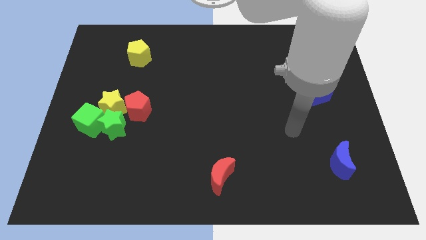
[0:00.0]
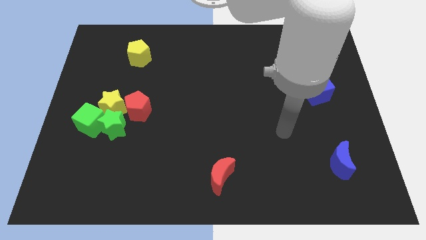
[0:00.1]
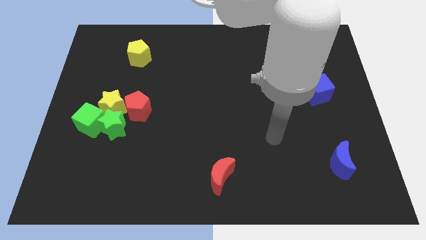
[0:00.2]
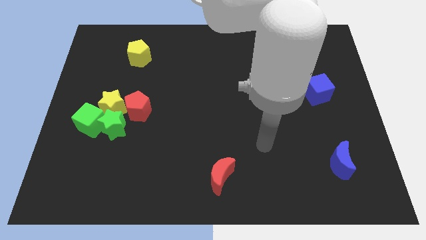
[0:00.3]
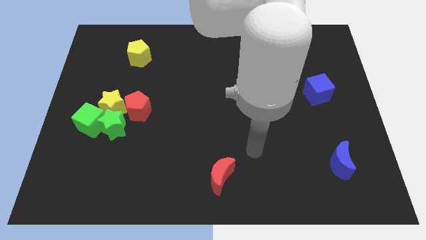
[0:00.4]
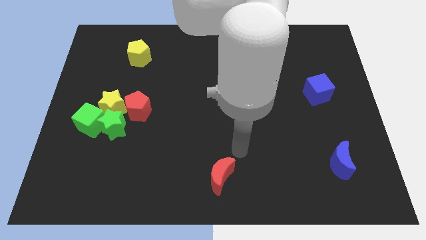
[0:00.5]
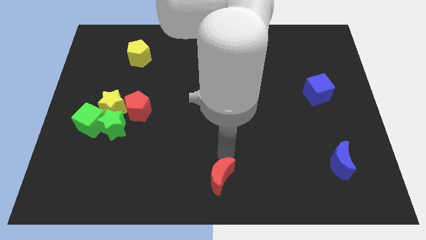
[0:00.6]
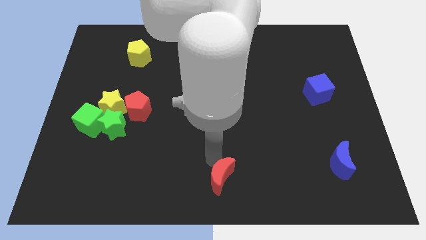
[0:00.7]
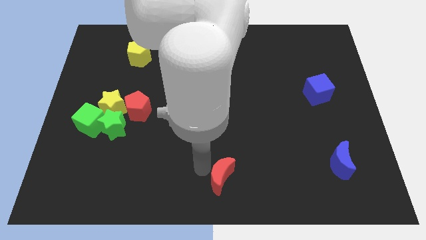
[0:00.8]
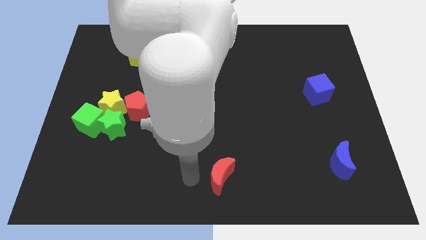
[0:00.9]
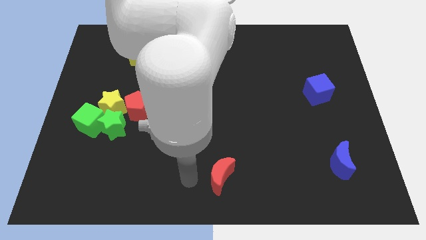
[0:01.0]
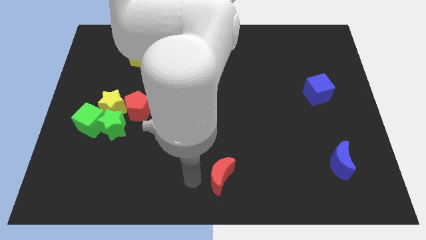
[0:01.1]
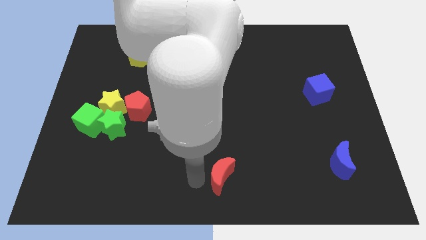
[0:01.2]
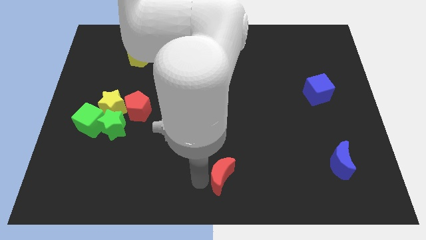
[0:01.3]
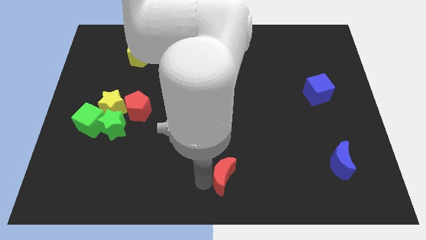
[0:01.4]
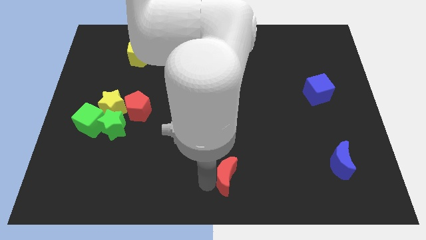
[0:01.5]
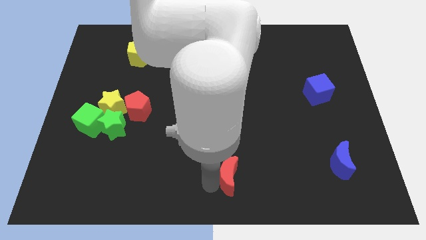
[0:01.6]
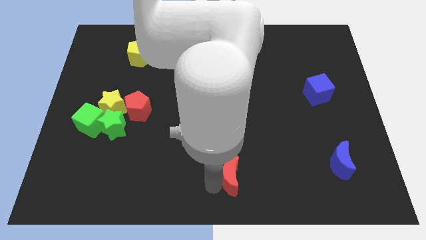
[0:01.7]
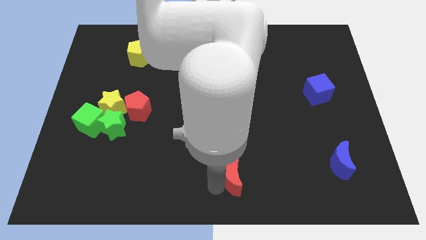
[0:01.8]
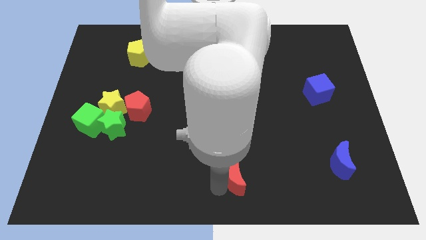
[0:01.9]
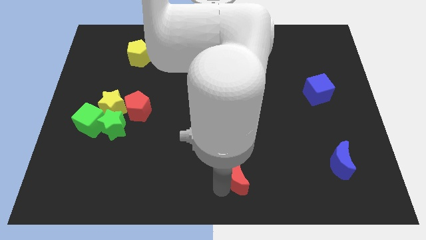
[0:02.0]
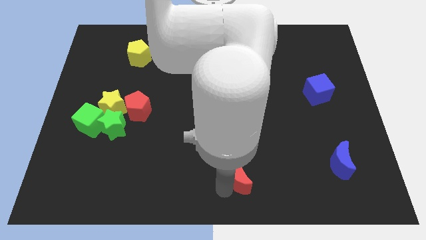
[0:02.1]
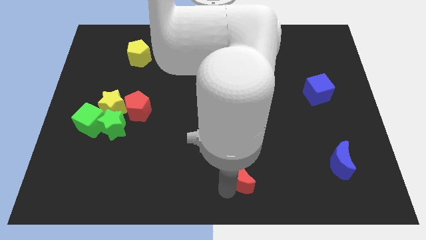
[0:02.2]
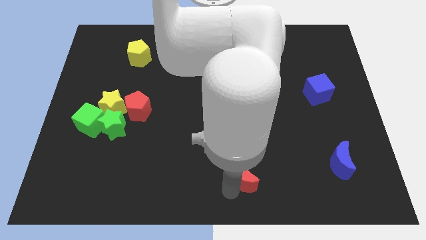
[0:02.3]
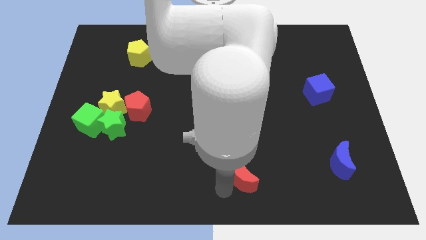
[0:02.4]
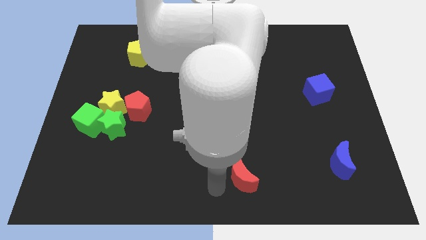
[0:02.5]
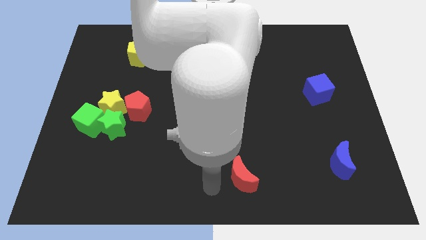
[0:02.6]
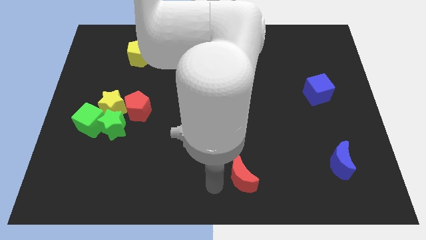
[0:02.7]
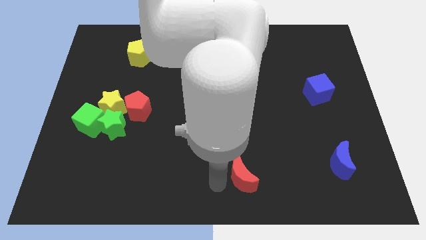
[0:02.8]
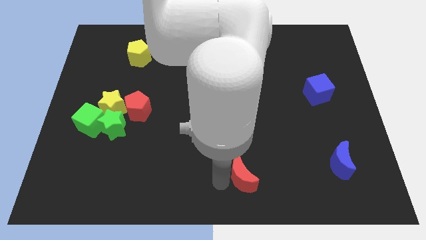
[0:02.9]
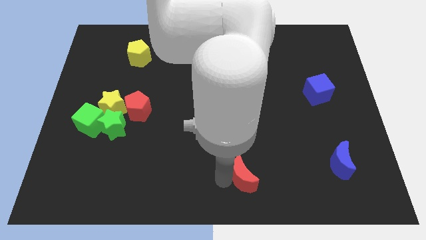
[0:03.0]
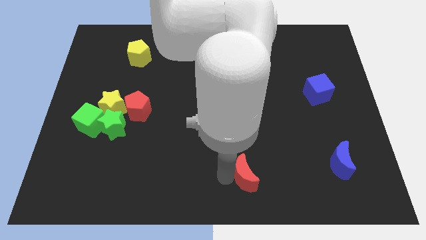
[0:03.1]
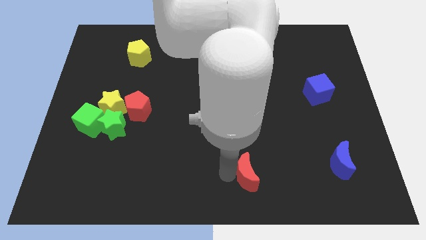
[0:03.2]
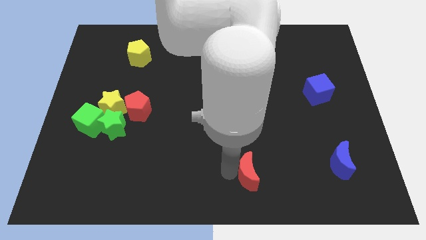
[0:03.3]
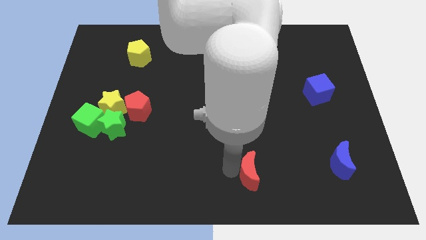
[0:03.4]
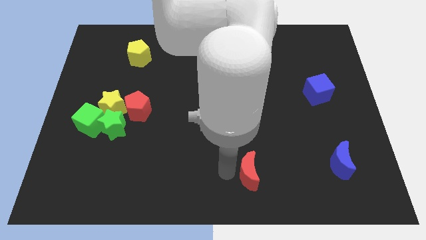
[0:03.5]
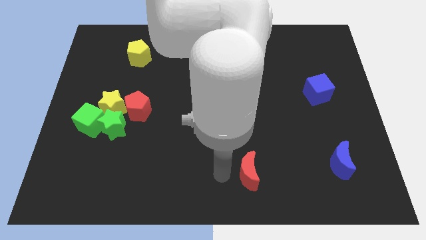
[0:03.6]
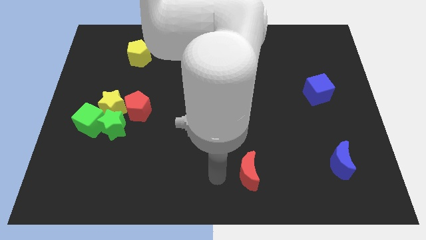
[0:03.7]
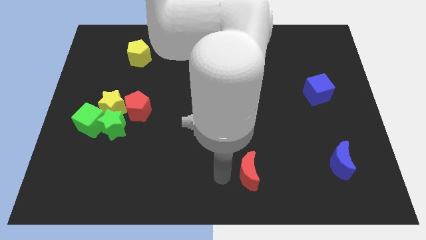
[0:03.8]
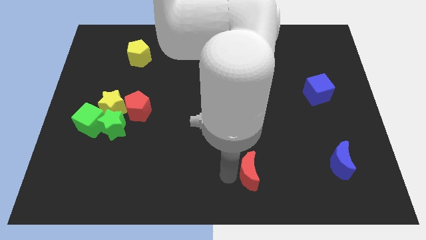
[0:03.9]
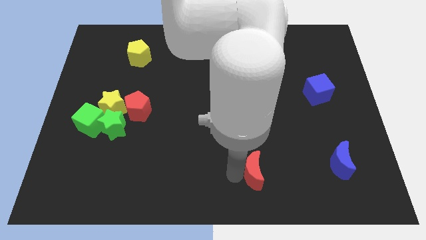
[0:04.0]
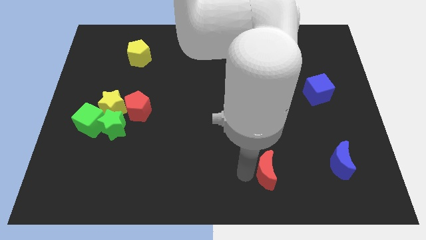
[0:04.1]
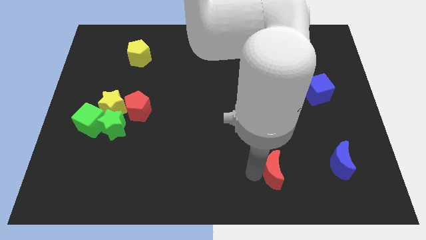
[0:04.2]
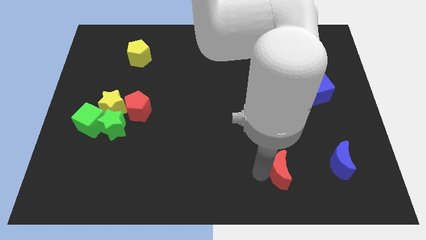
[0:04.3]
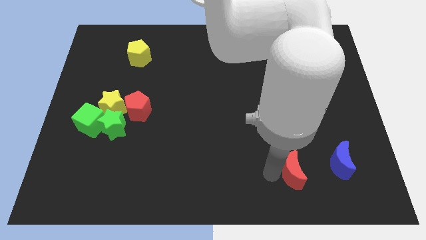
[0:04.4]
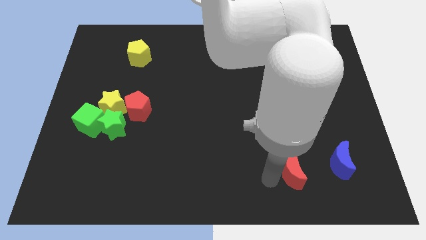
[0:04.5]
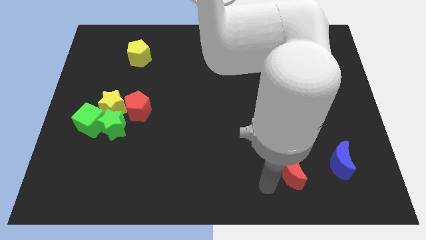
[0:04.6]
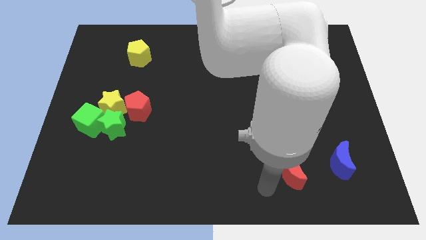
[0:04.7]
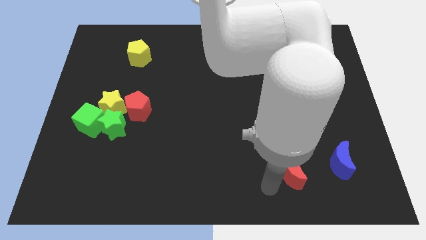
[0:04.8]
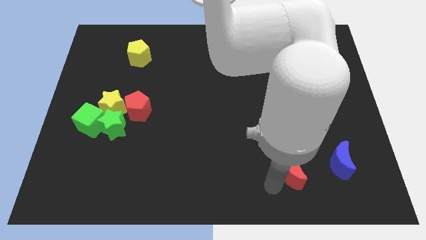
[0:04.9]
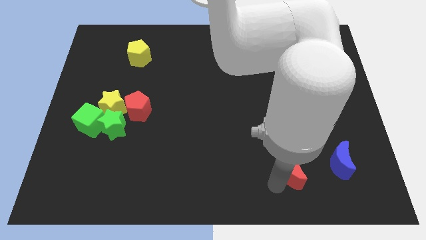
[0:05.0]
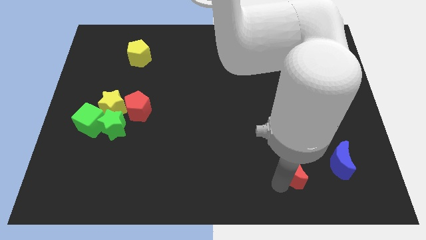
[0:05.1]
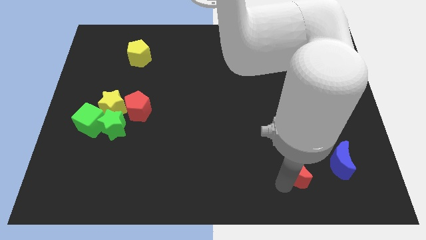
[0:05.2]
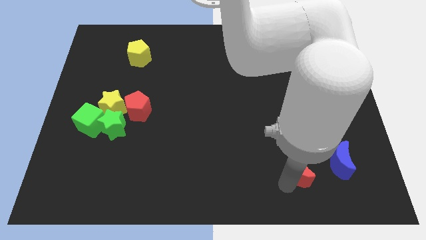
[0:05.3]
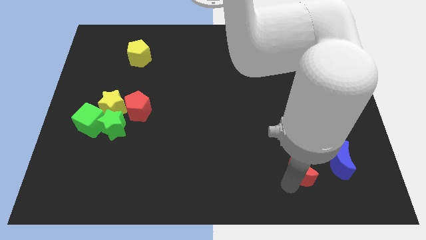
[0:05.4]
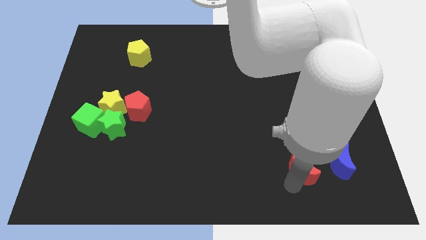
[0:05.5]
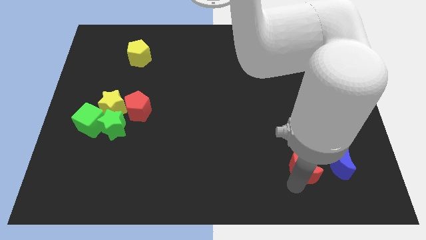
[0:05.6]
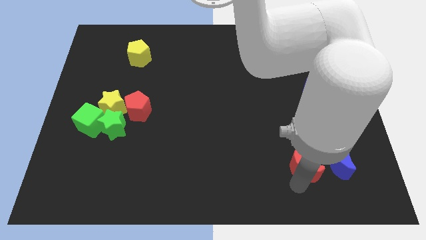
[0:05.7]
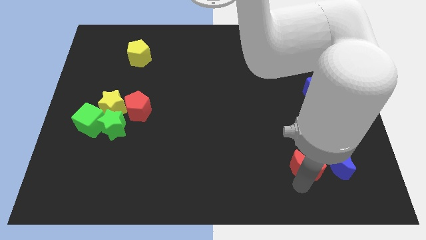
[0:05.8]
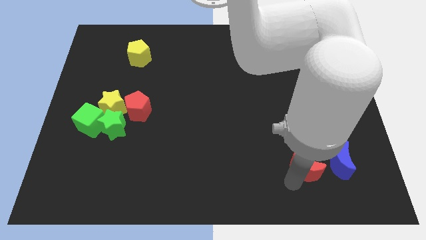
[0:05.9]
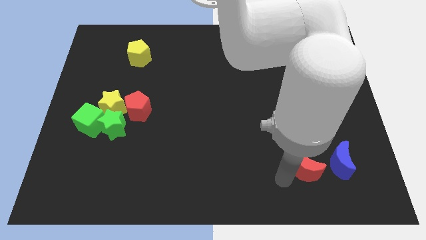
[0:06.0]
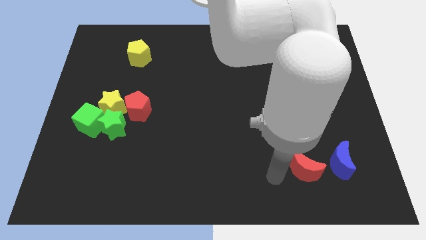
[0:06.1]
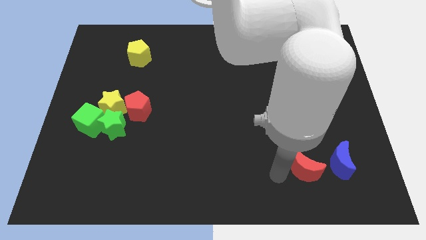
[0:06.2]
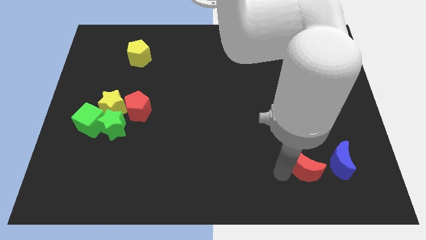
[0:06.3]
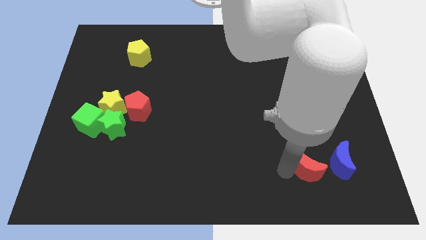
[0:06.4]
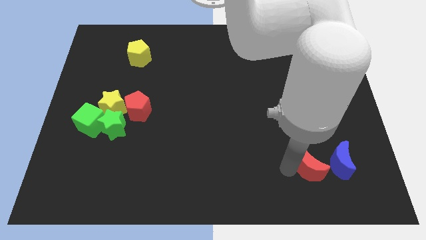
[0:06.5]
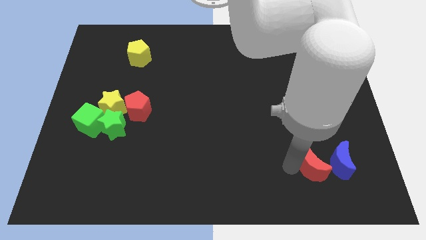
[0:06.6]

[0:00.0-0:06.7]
move the red moon towards the blue moon

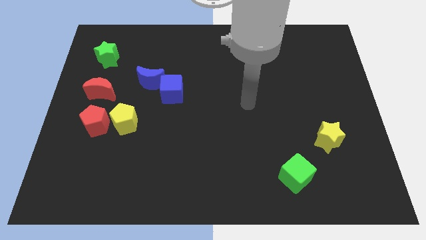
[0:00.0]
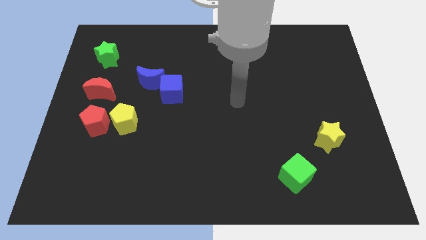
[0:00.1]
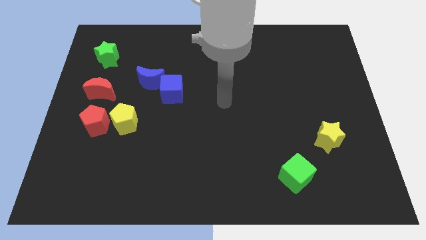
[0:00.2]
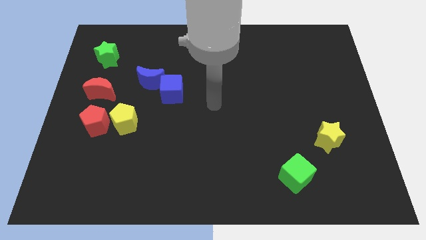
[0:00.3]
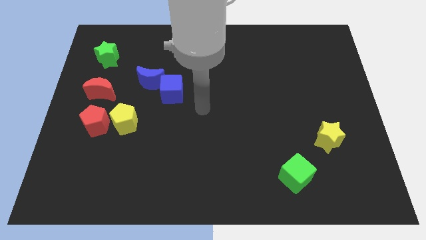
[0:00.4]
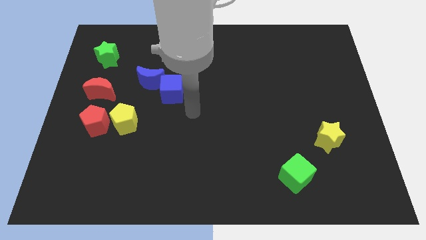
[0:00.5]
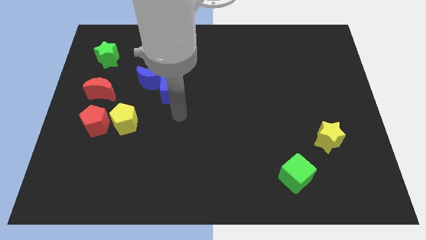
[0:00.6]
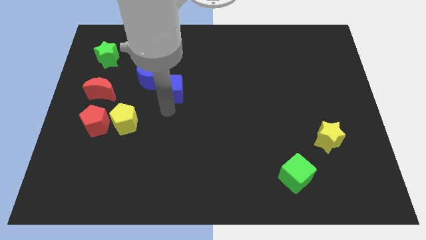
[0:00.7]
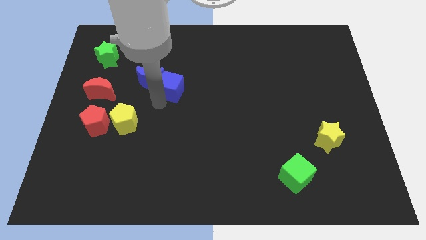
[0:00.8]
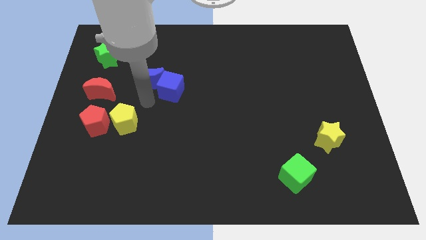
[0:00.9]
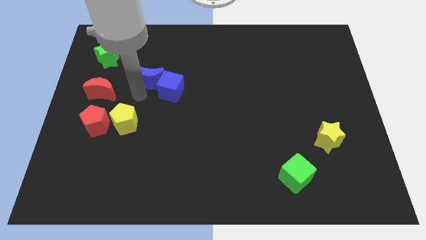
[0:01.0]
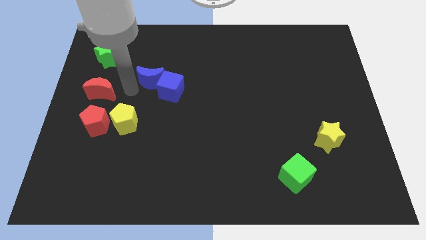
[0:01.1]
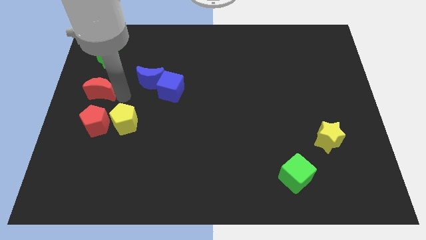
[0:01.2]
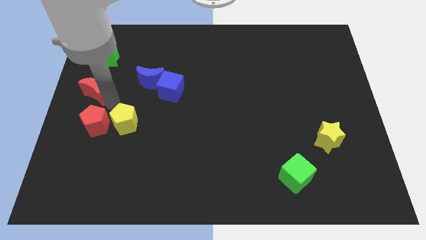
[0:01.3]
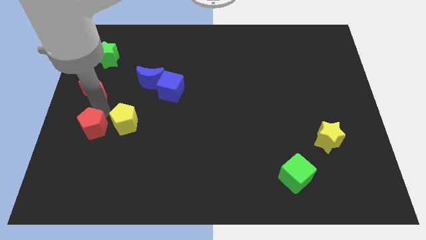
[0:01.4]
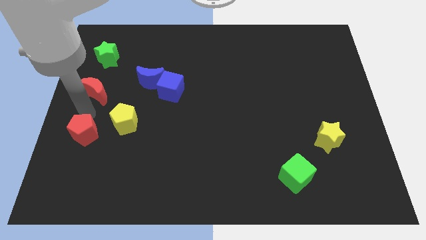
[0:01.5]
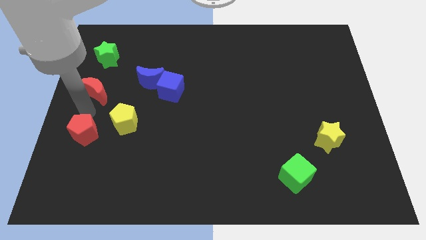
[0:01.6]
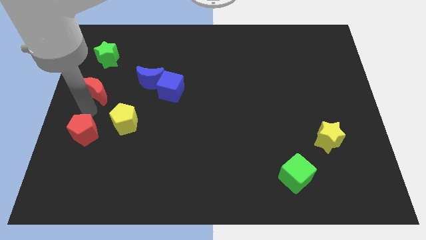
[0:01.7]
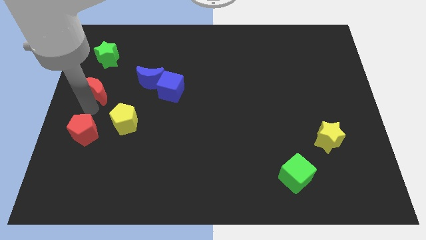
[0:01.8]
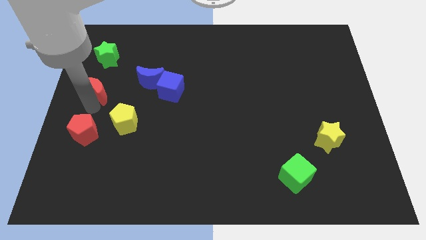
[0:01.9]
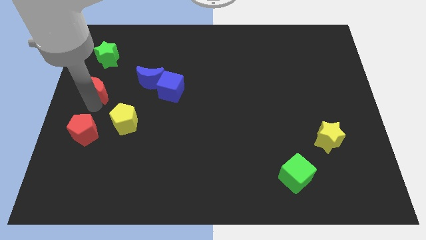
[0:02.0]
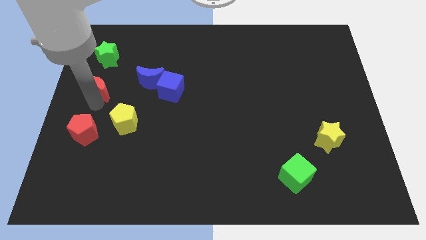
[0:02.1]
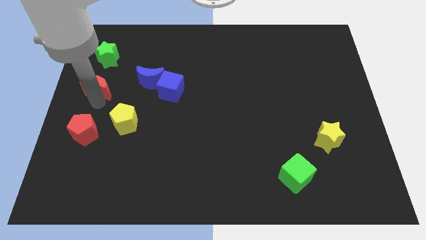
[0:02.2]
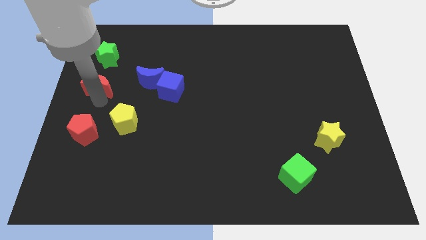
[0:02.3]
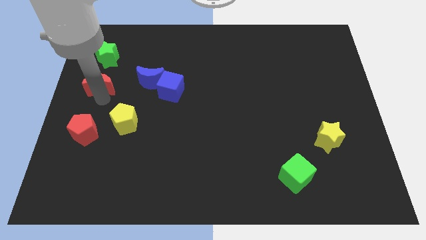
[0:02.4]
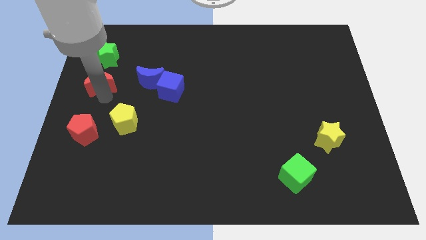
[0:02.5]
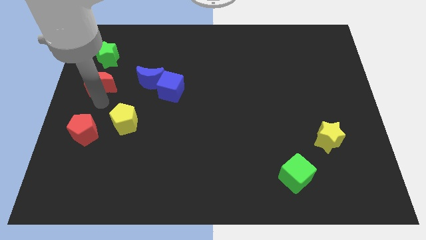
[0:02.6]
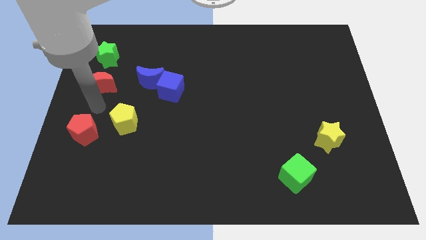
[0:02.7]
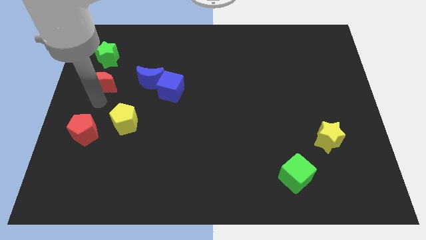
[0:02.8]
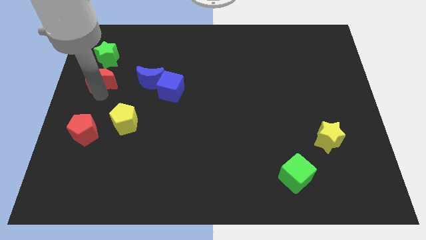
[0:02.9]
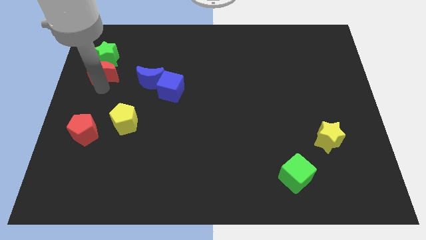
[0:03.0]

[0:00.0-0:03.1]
put the red moon to the green star
